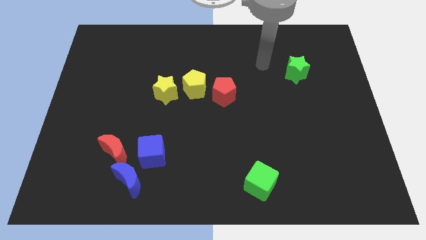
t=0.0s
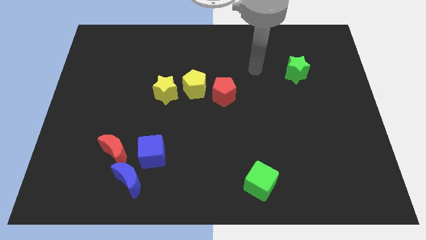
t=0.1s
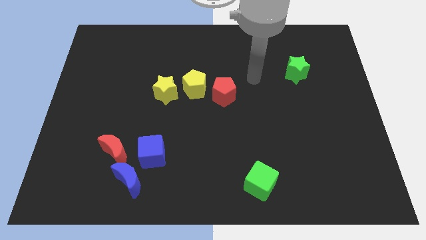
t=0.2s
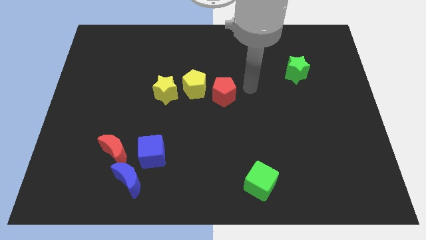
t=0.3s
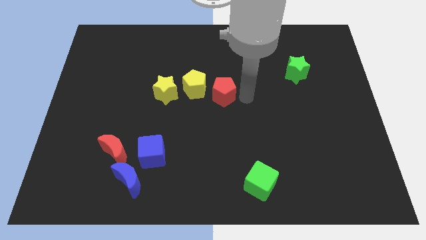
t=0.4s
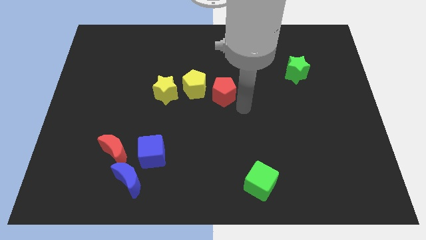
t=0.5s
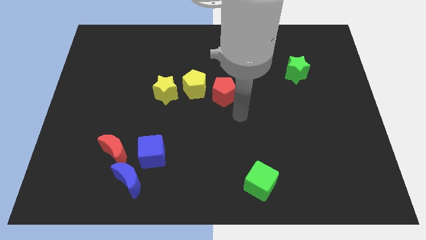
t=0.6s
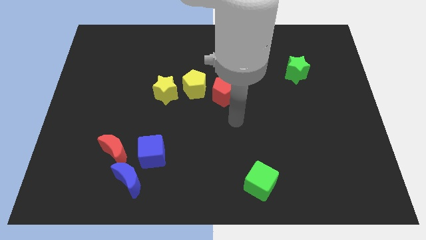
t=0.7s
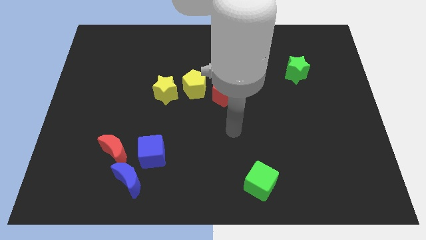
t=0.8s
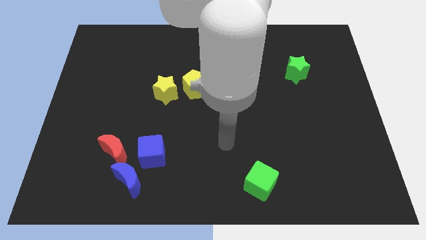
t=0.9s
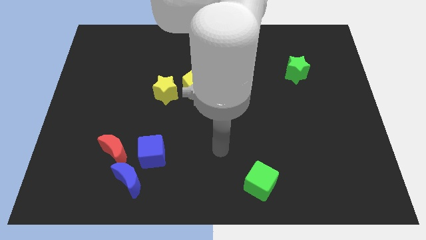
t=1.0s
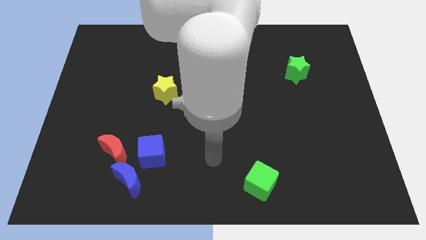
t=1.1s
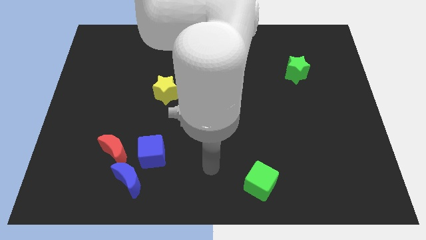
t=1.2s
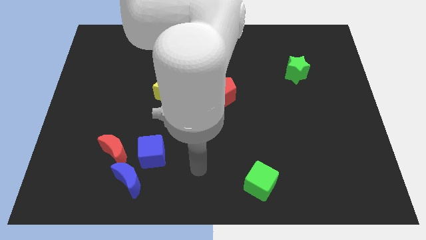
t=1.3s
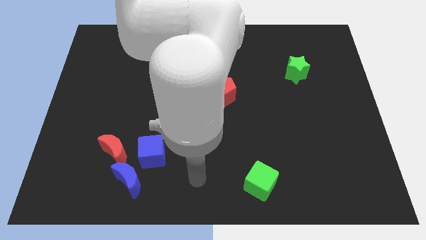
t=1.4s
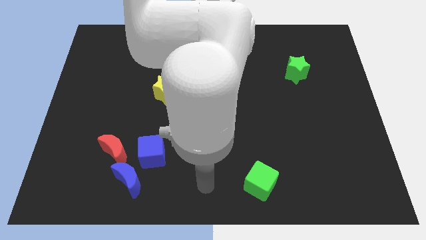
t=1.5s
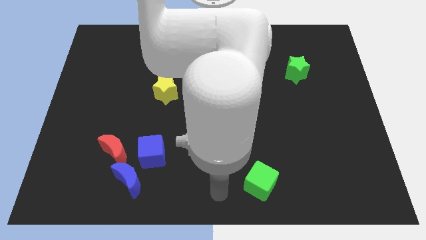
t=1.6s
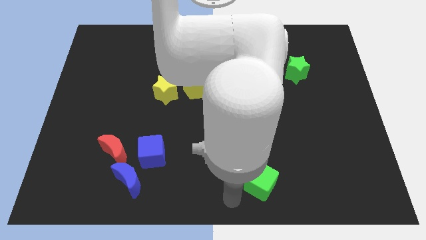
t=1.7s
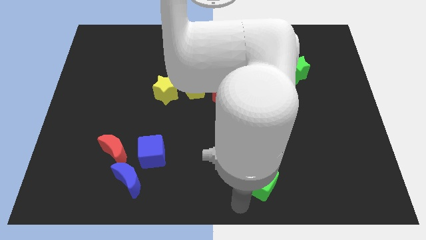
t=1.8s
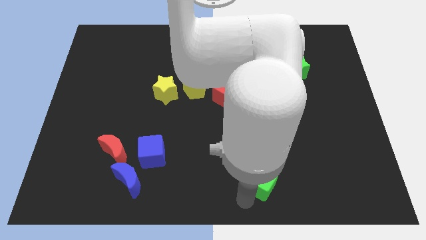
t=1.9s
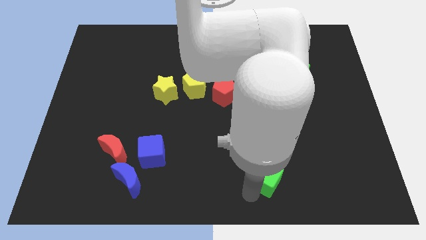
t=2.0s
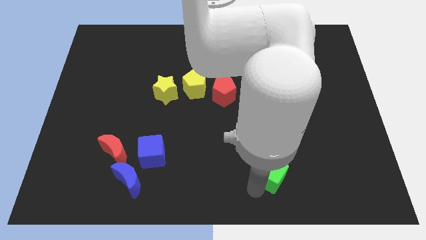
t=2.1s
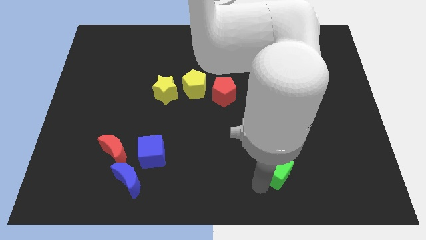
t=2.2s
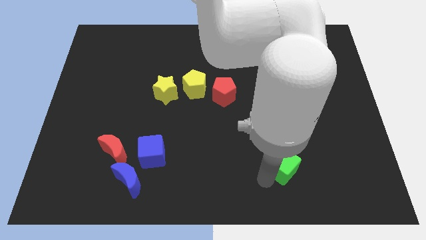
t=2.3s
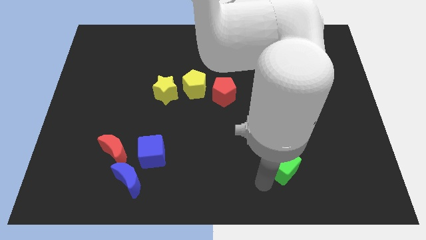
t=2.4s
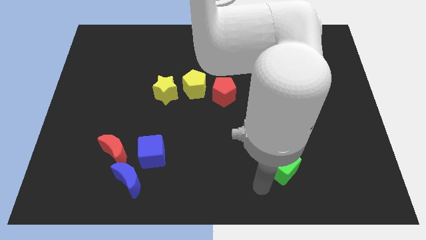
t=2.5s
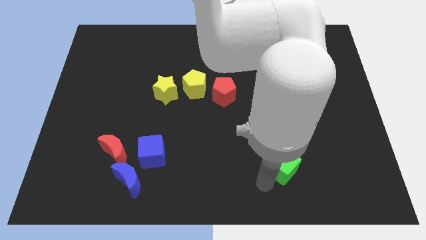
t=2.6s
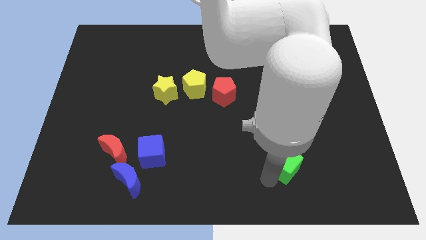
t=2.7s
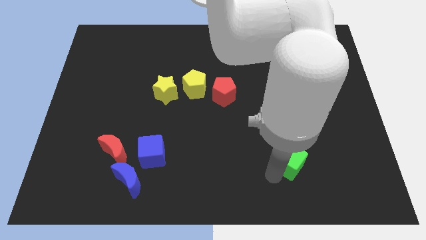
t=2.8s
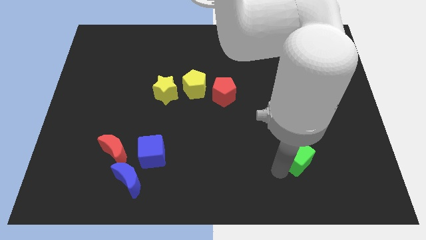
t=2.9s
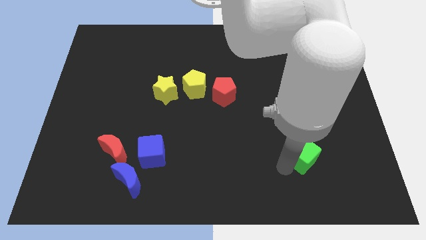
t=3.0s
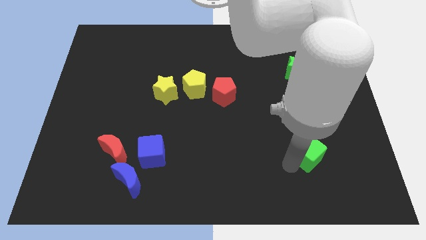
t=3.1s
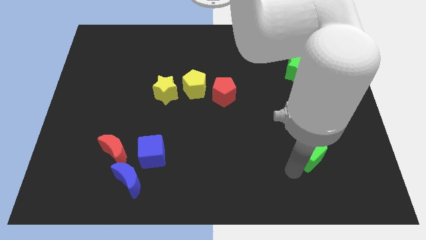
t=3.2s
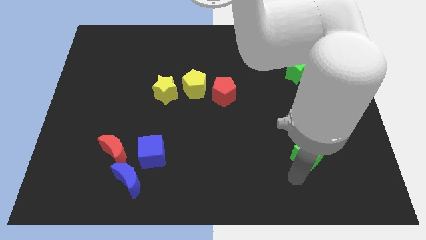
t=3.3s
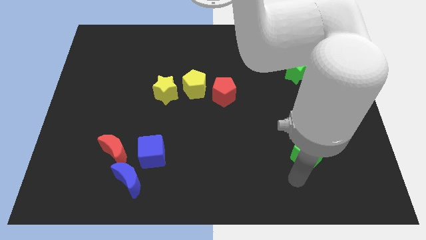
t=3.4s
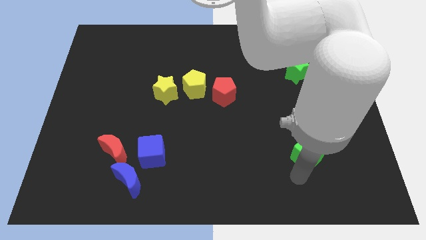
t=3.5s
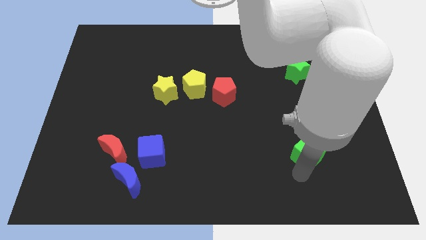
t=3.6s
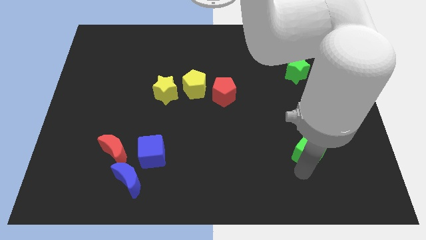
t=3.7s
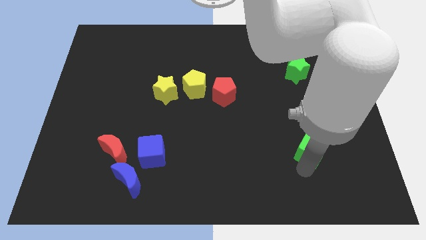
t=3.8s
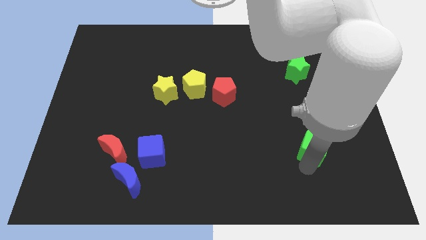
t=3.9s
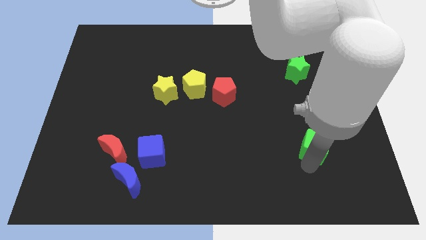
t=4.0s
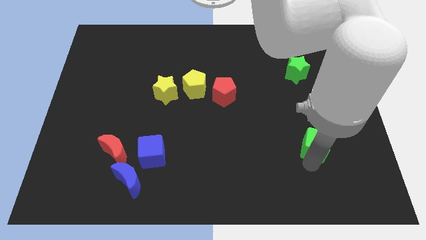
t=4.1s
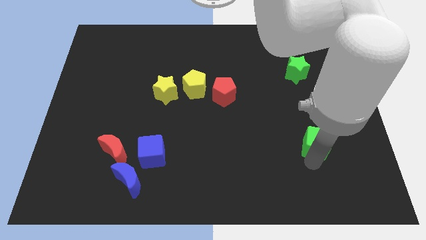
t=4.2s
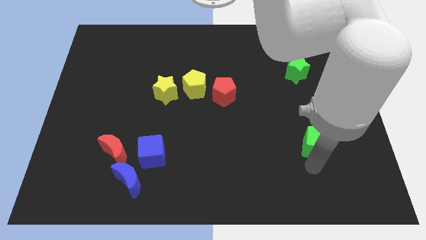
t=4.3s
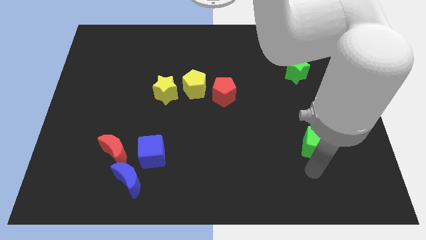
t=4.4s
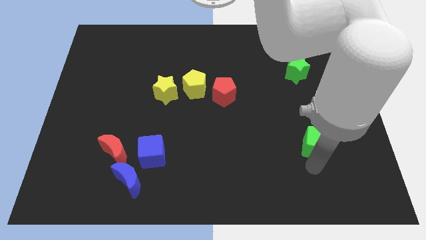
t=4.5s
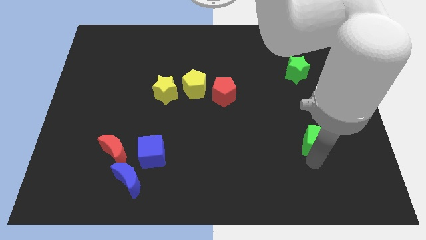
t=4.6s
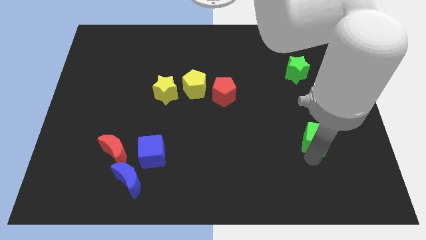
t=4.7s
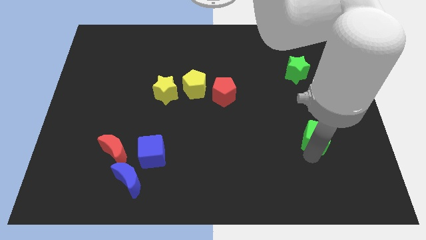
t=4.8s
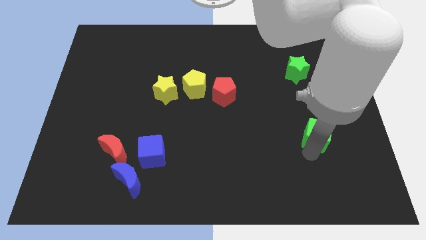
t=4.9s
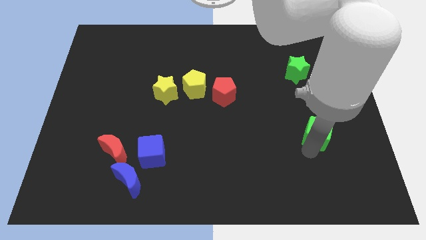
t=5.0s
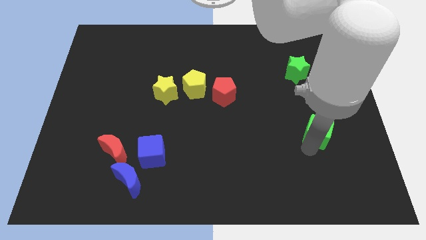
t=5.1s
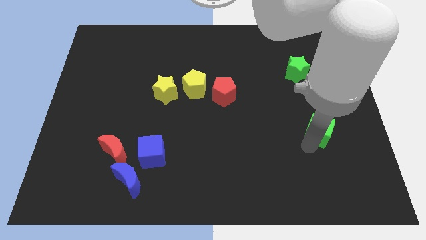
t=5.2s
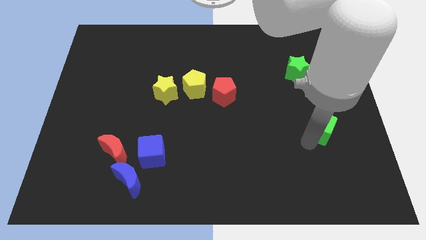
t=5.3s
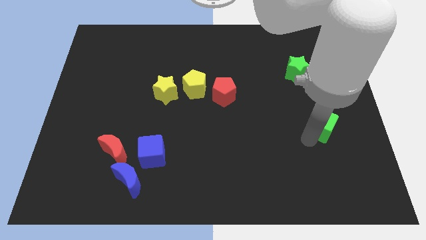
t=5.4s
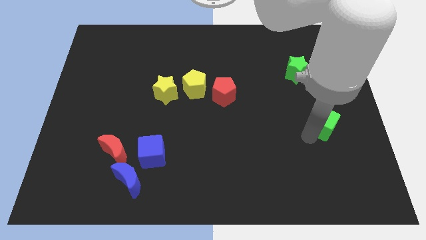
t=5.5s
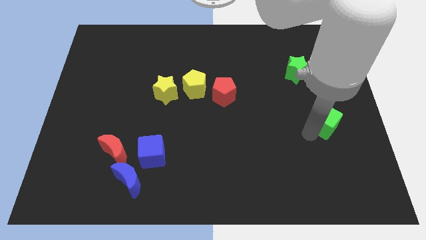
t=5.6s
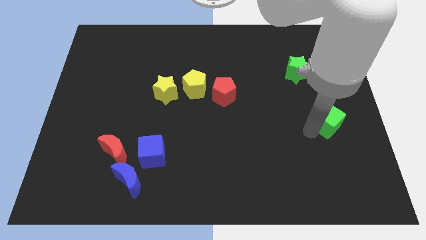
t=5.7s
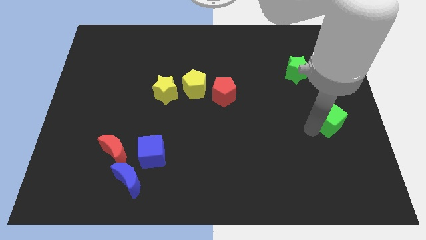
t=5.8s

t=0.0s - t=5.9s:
move the green cube to the right side of the board
